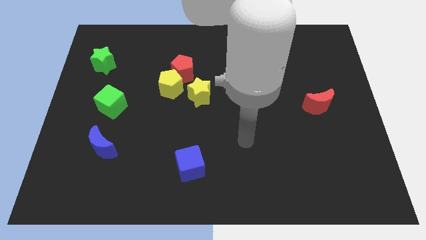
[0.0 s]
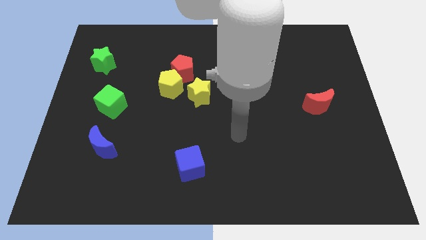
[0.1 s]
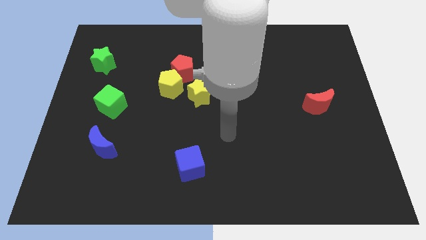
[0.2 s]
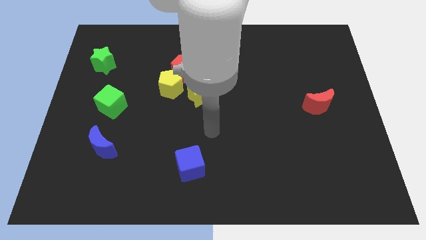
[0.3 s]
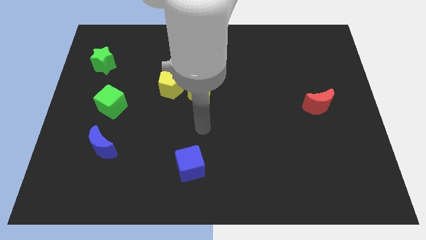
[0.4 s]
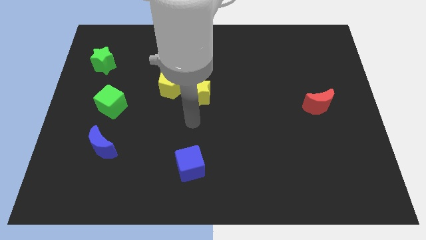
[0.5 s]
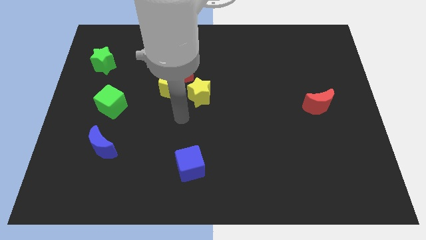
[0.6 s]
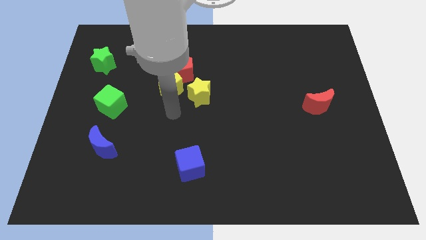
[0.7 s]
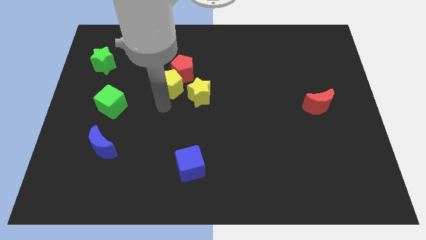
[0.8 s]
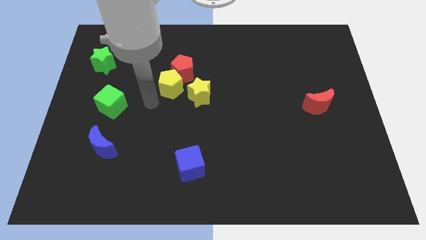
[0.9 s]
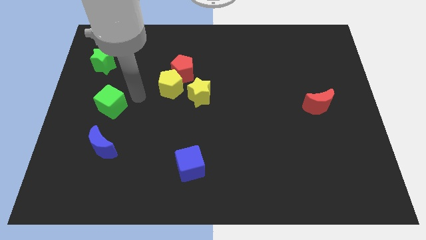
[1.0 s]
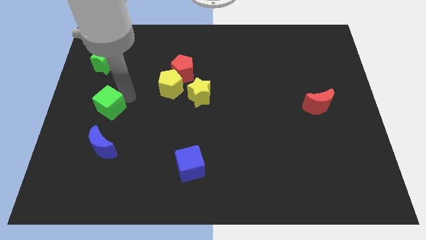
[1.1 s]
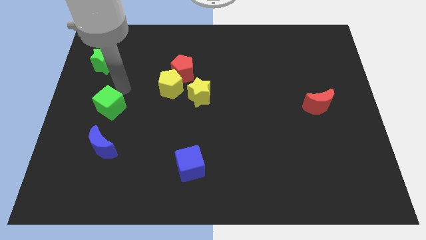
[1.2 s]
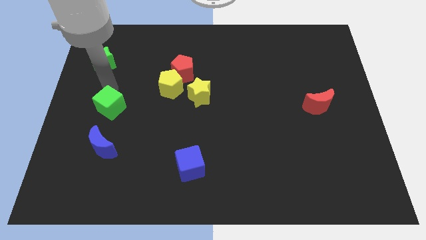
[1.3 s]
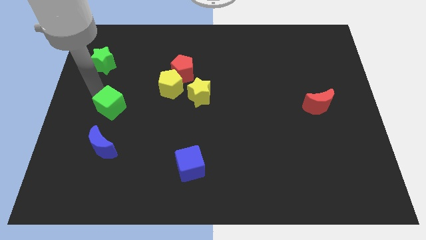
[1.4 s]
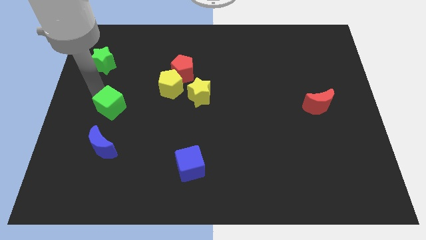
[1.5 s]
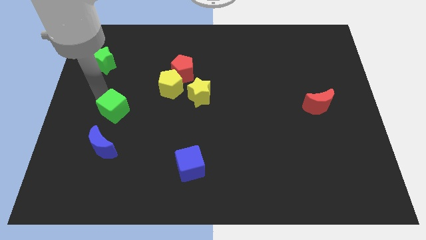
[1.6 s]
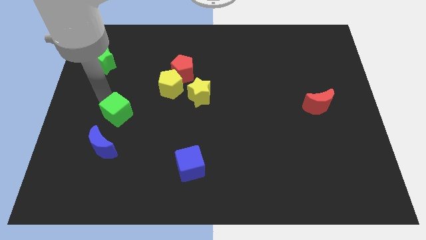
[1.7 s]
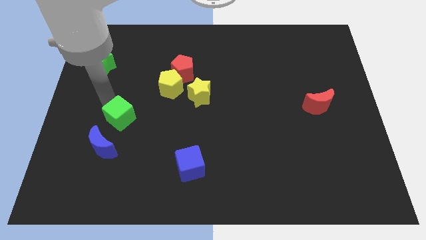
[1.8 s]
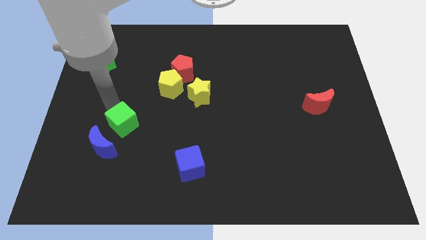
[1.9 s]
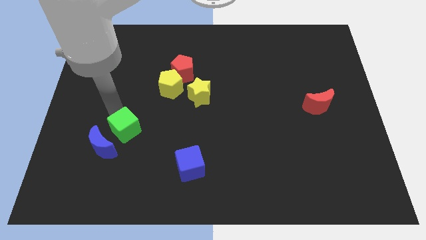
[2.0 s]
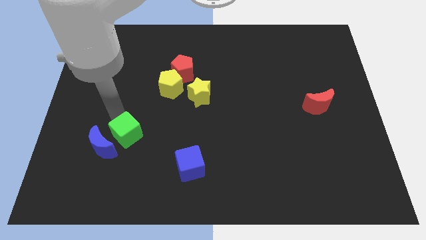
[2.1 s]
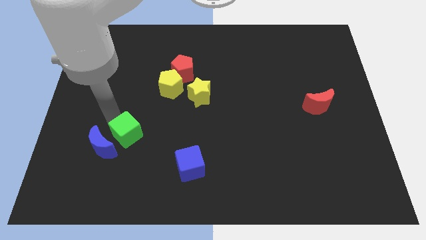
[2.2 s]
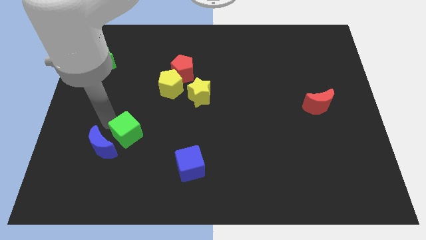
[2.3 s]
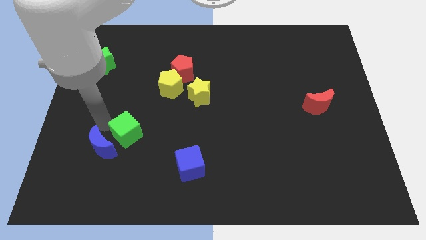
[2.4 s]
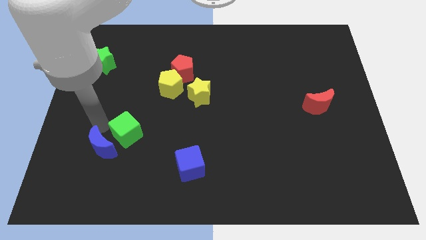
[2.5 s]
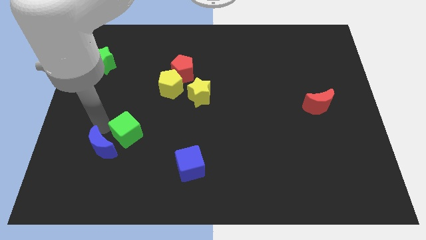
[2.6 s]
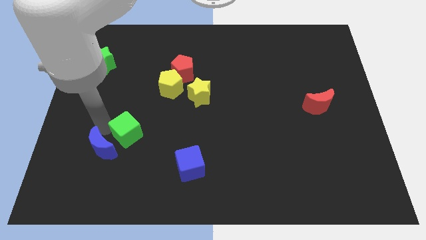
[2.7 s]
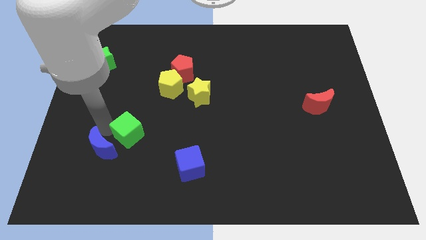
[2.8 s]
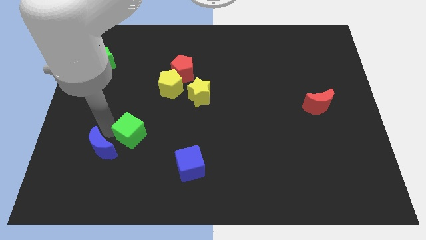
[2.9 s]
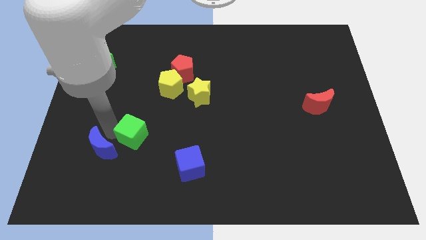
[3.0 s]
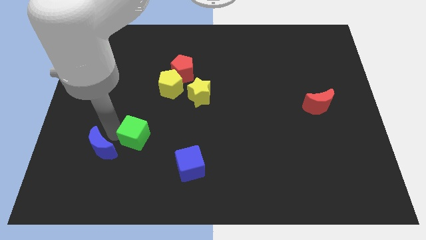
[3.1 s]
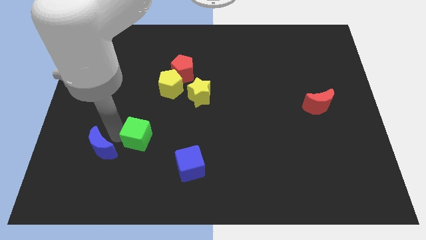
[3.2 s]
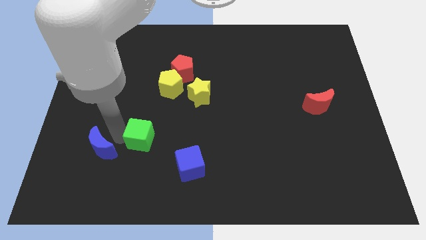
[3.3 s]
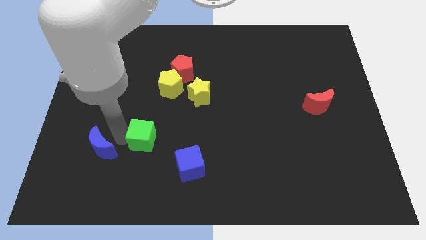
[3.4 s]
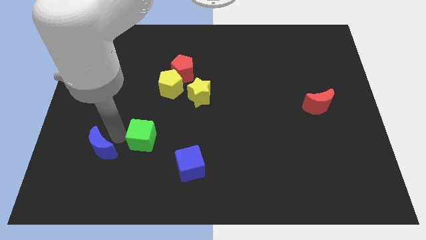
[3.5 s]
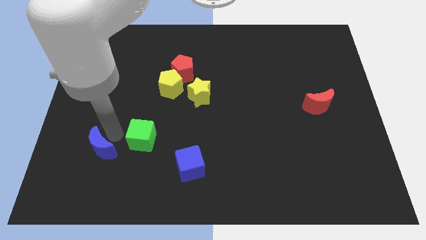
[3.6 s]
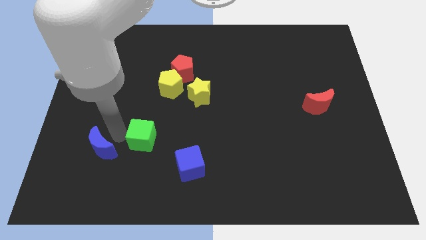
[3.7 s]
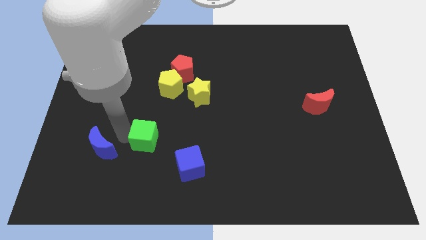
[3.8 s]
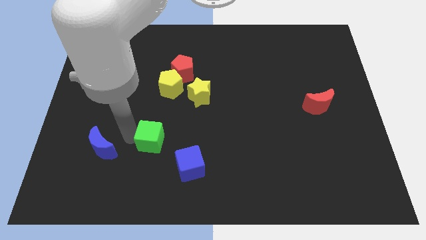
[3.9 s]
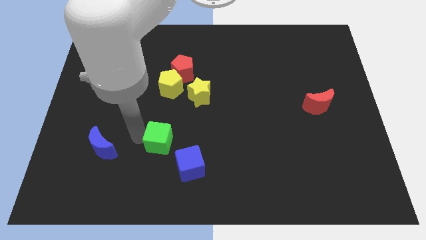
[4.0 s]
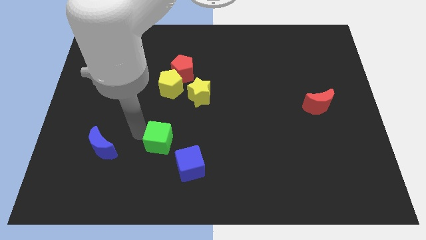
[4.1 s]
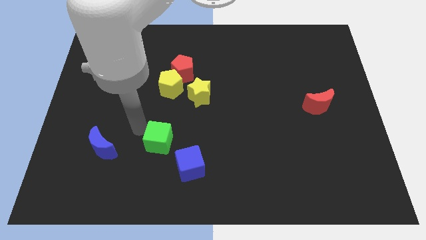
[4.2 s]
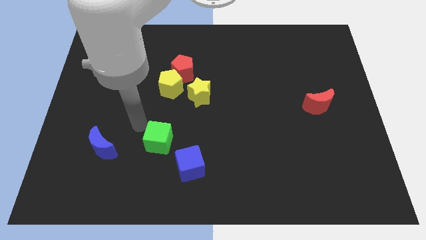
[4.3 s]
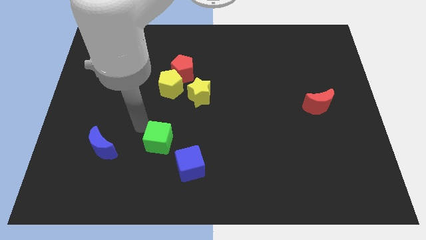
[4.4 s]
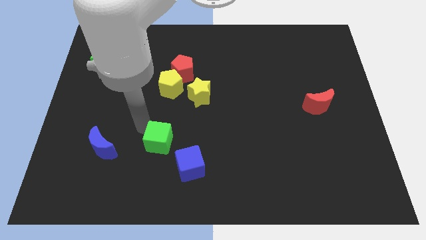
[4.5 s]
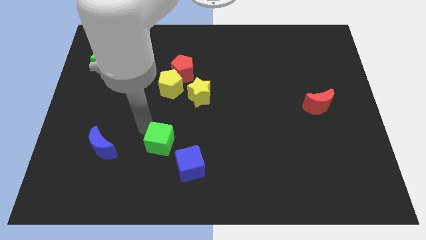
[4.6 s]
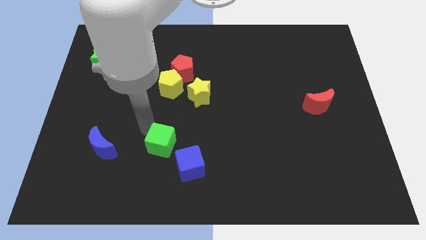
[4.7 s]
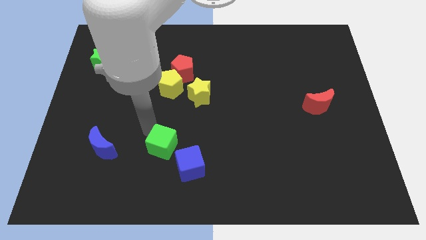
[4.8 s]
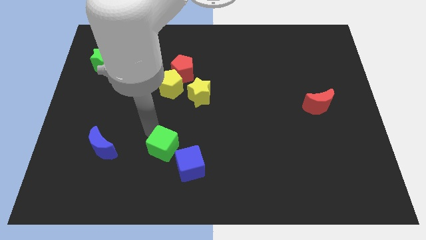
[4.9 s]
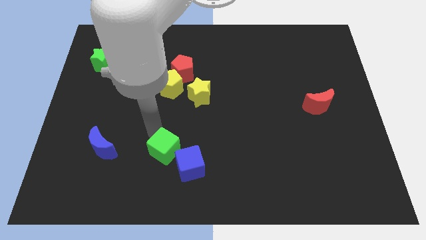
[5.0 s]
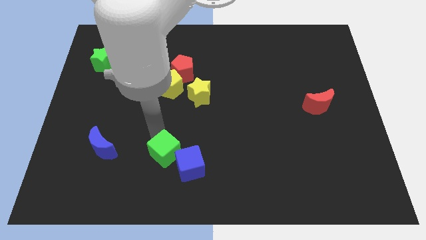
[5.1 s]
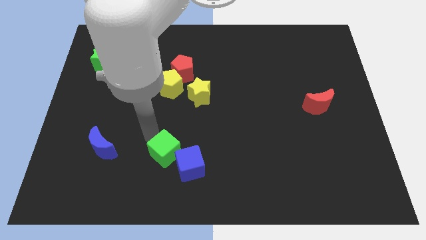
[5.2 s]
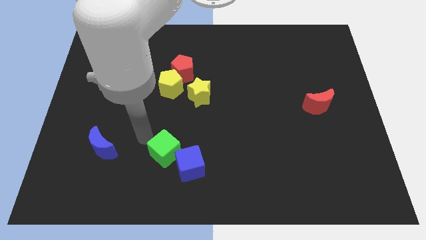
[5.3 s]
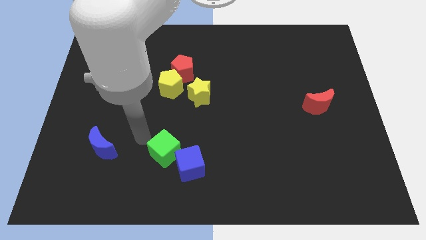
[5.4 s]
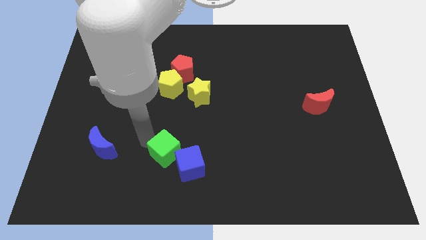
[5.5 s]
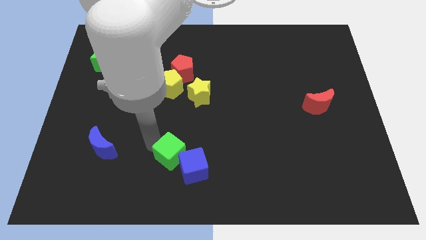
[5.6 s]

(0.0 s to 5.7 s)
push the green cube to the blue cube

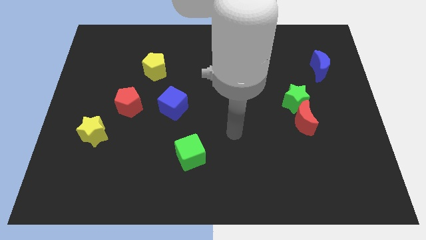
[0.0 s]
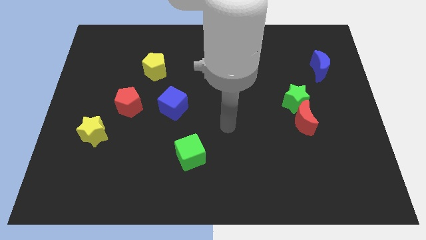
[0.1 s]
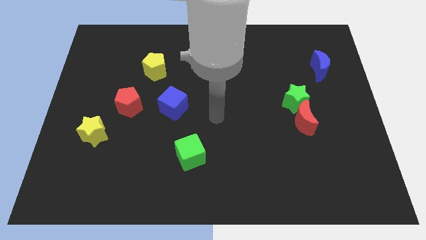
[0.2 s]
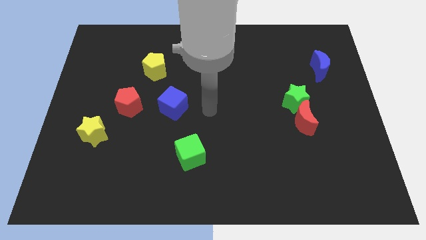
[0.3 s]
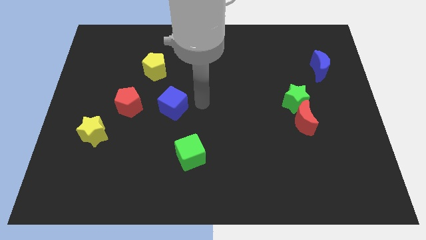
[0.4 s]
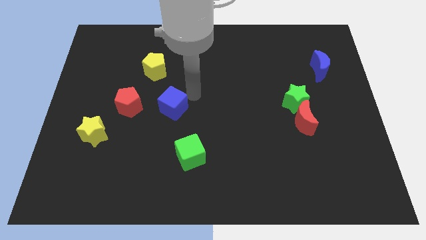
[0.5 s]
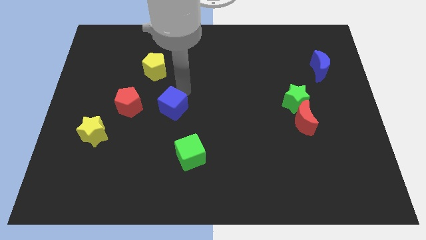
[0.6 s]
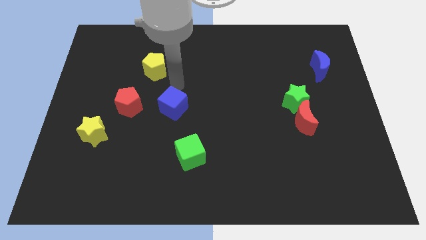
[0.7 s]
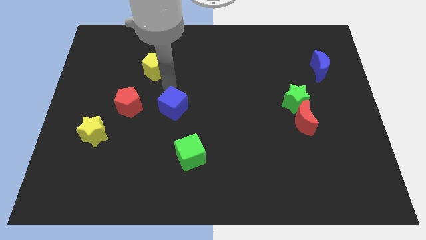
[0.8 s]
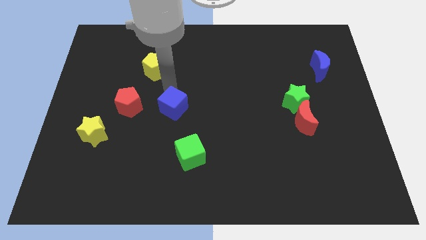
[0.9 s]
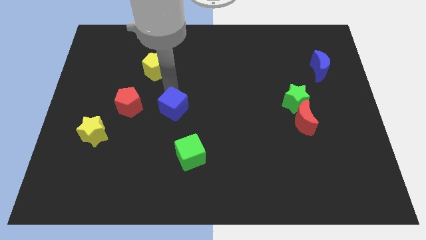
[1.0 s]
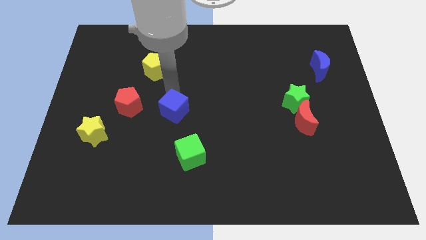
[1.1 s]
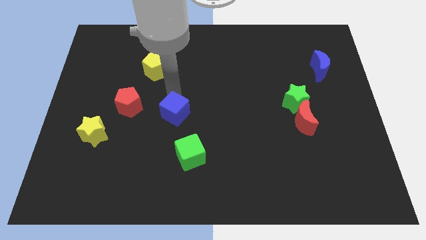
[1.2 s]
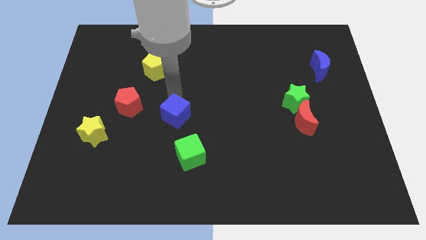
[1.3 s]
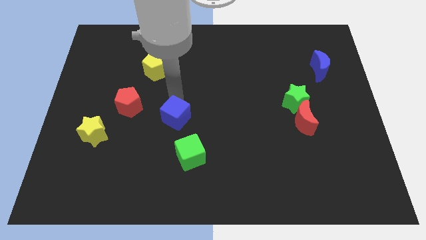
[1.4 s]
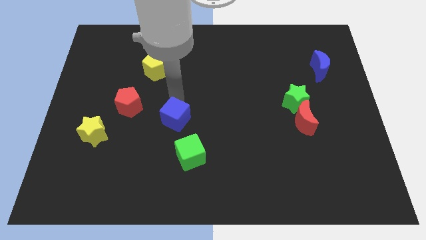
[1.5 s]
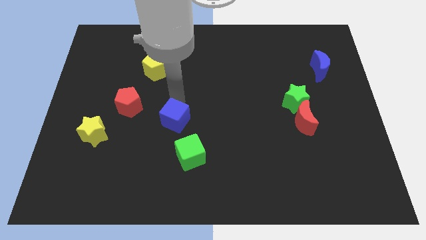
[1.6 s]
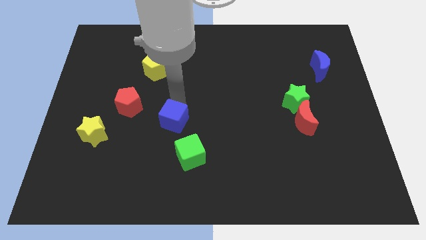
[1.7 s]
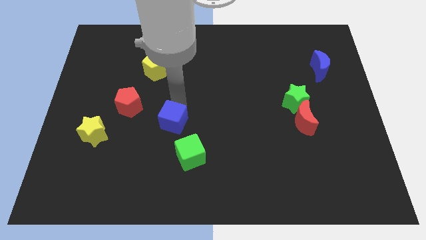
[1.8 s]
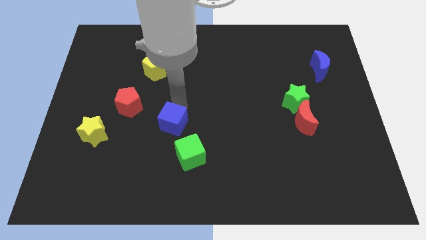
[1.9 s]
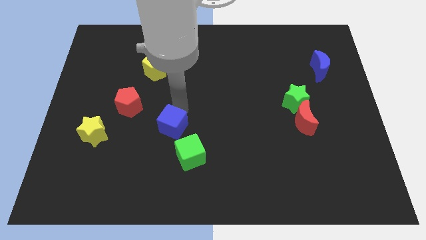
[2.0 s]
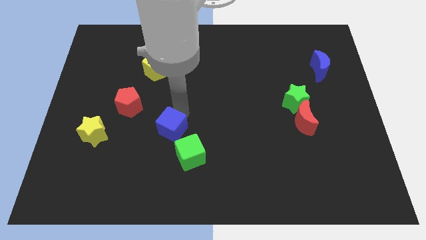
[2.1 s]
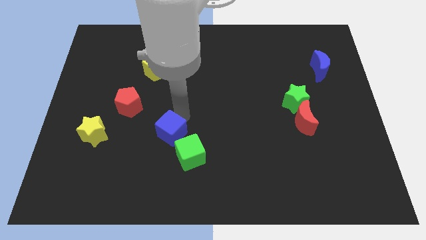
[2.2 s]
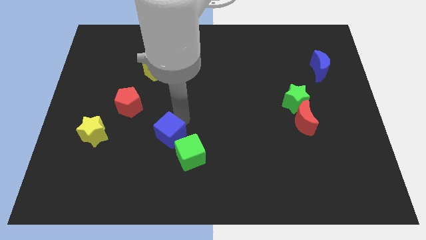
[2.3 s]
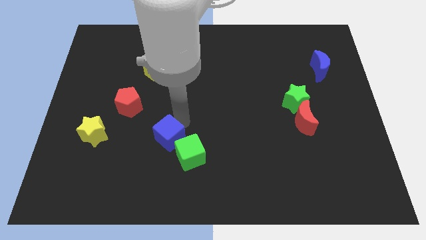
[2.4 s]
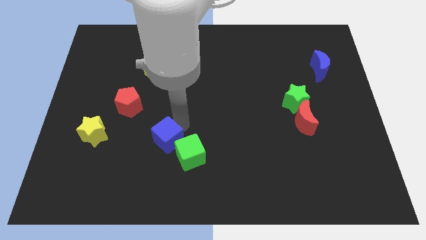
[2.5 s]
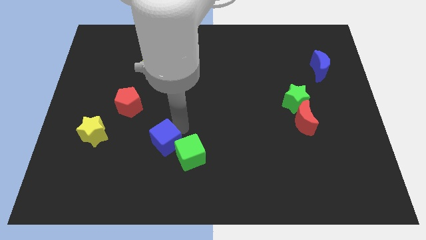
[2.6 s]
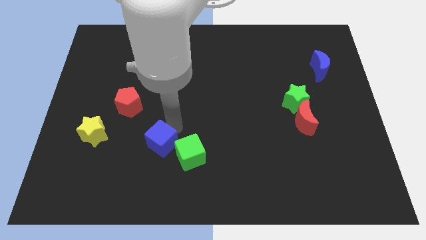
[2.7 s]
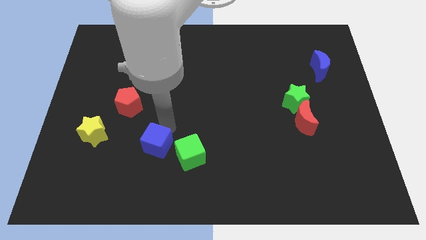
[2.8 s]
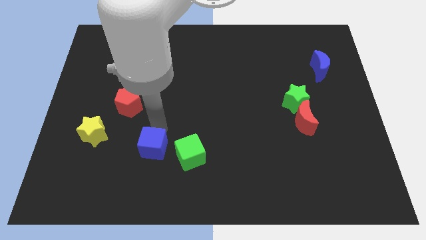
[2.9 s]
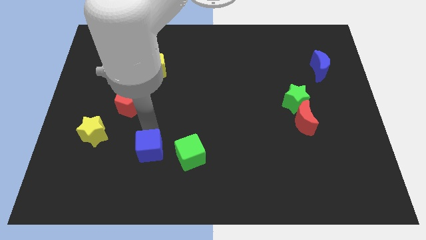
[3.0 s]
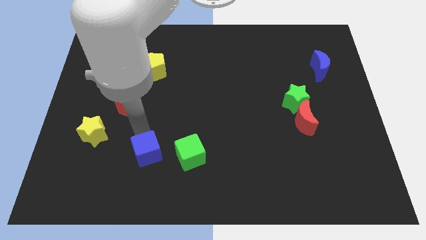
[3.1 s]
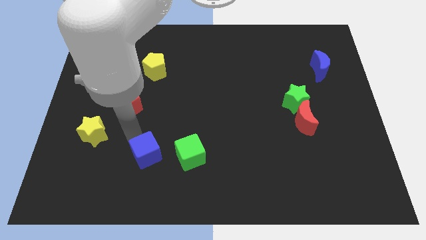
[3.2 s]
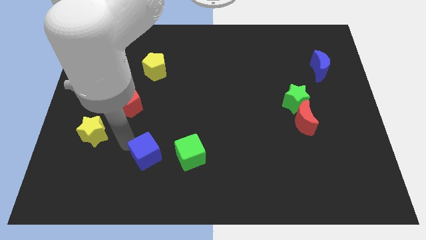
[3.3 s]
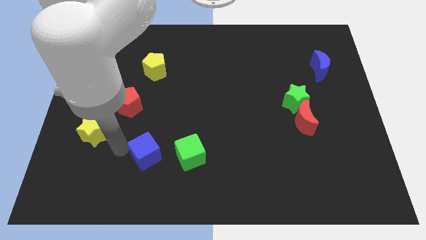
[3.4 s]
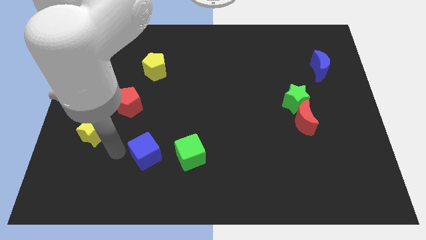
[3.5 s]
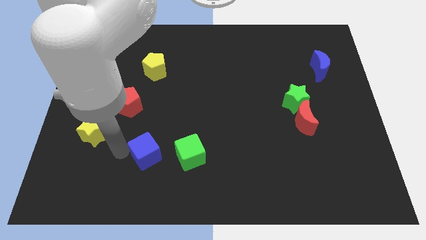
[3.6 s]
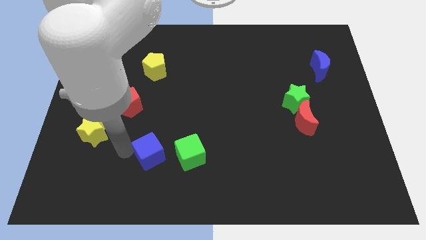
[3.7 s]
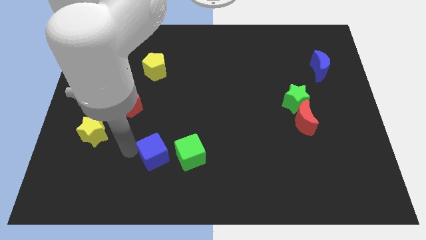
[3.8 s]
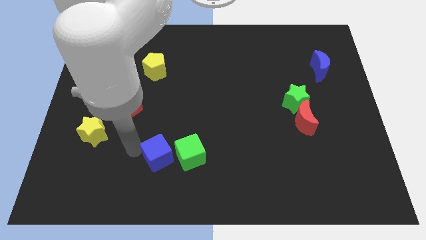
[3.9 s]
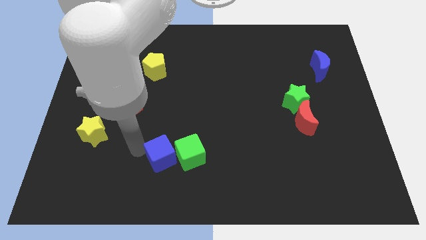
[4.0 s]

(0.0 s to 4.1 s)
push the blue cube towards the green cube
